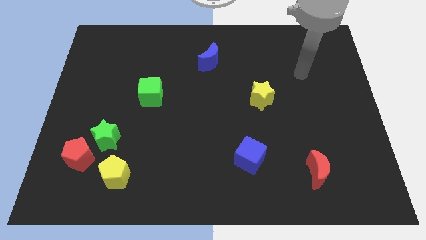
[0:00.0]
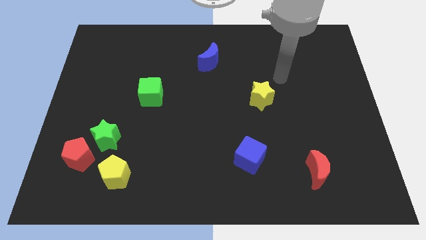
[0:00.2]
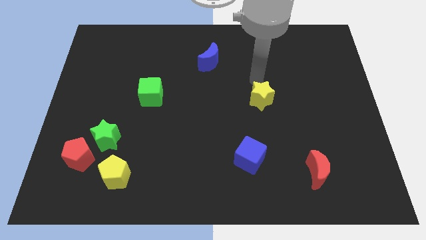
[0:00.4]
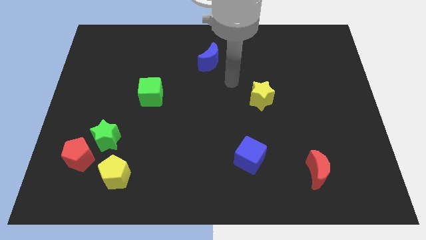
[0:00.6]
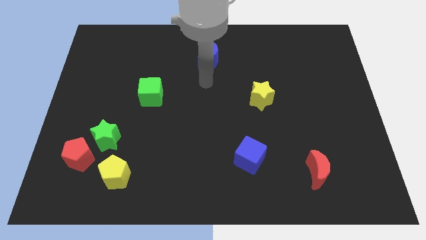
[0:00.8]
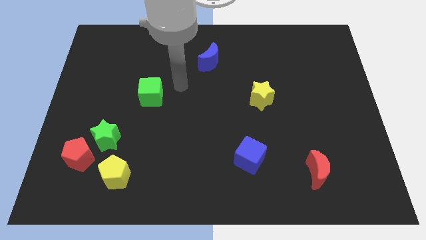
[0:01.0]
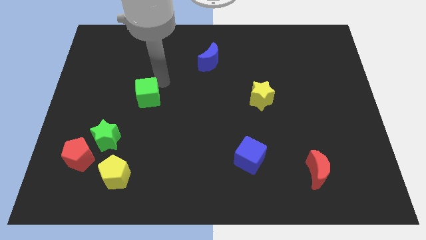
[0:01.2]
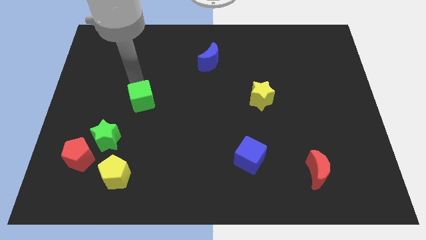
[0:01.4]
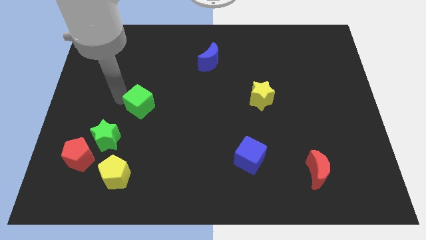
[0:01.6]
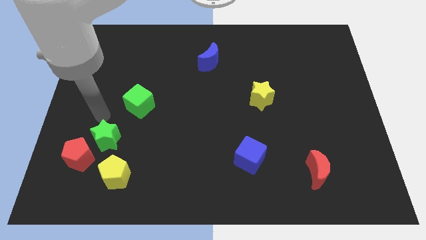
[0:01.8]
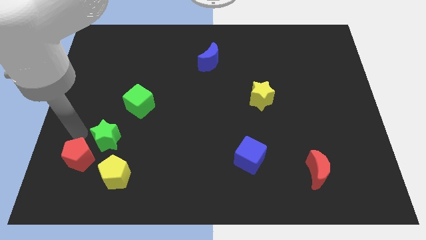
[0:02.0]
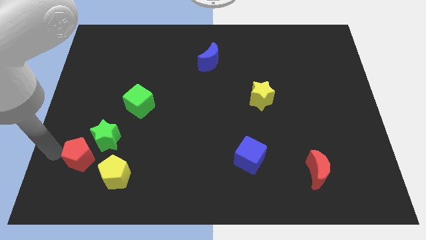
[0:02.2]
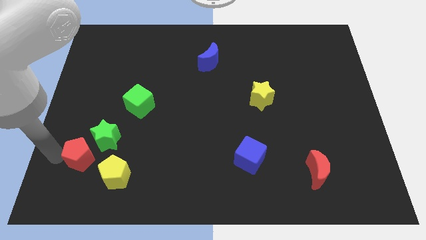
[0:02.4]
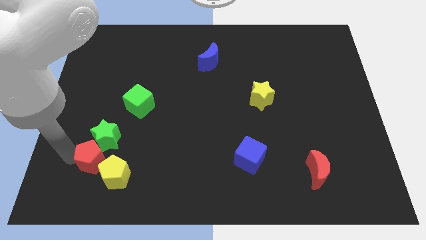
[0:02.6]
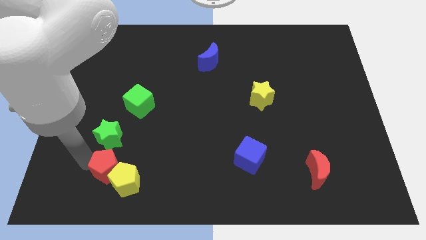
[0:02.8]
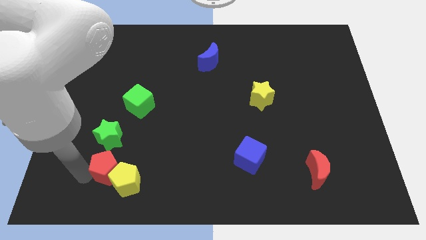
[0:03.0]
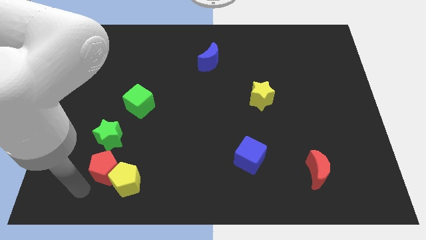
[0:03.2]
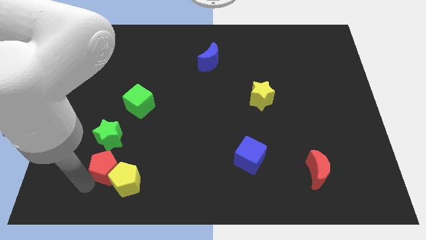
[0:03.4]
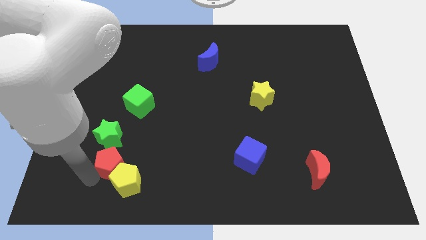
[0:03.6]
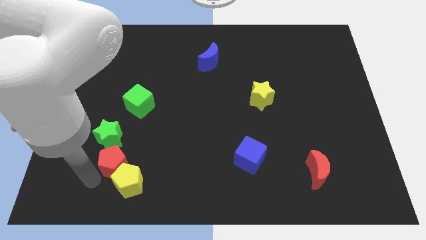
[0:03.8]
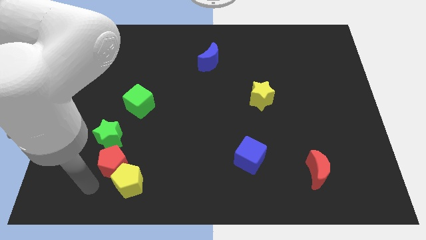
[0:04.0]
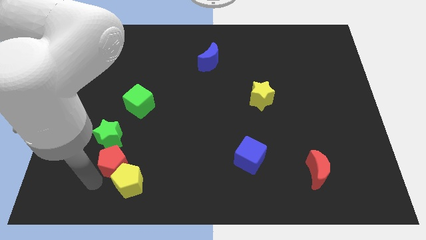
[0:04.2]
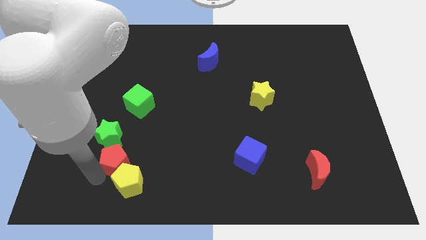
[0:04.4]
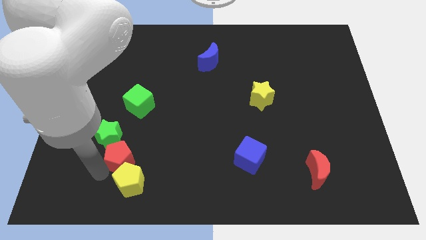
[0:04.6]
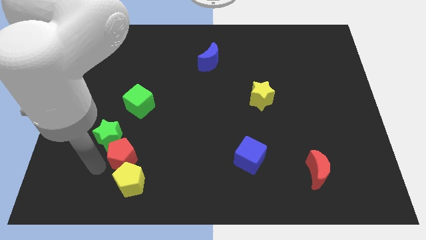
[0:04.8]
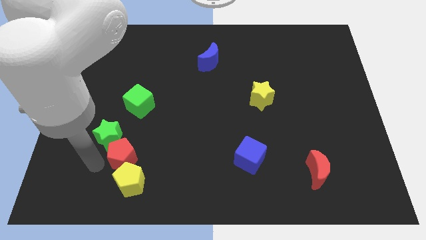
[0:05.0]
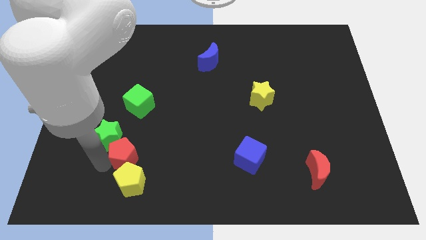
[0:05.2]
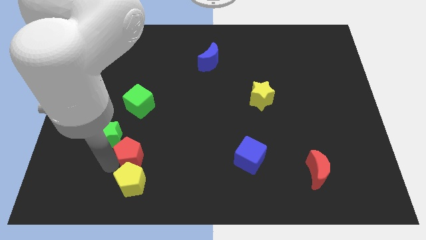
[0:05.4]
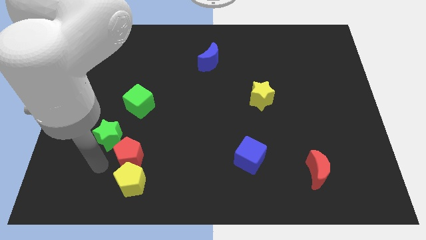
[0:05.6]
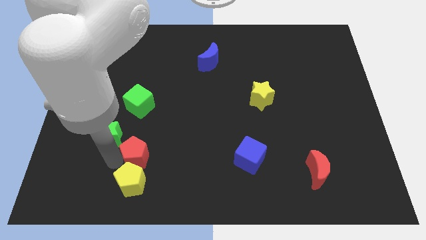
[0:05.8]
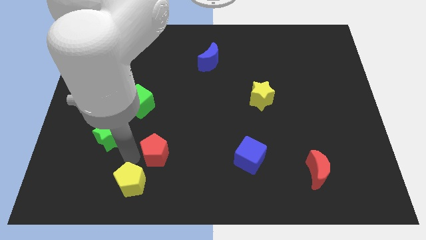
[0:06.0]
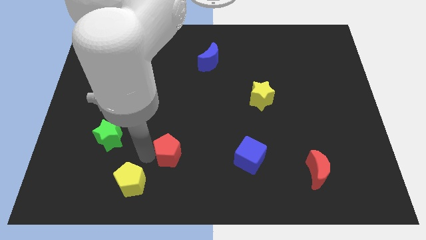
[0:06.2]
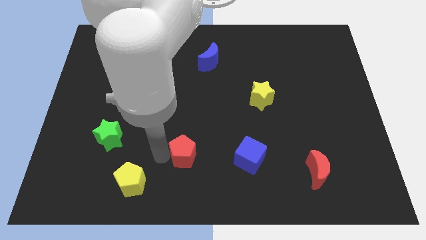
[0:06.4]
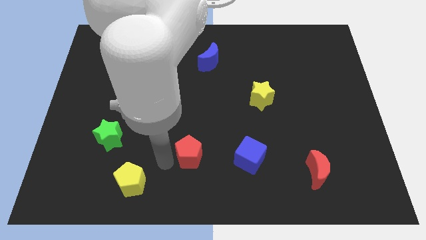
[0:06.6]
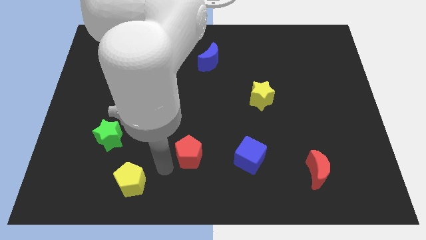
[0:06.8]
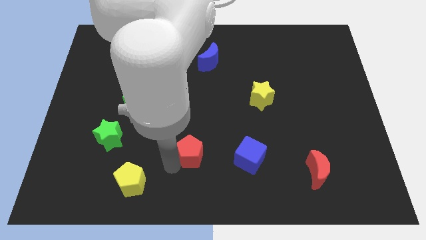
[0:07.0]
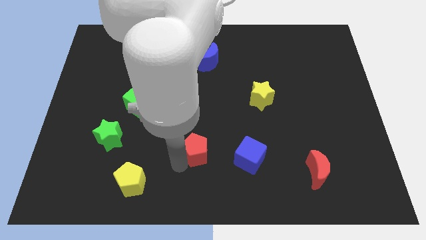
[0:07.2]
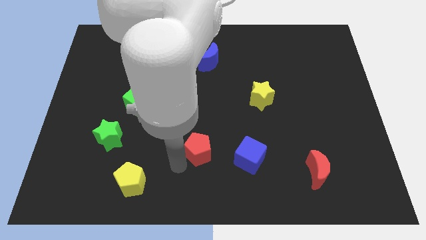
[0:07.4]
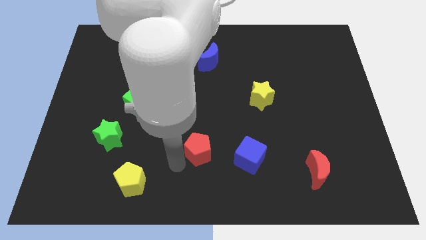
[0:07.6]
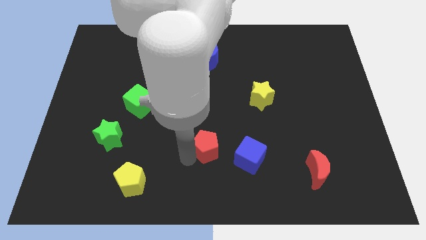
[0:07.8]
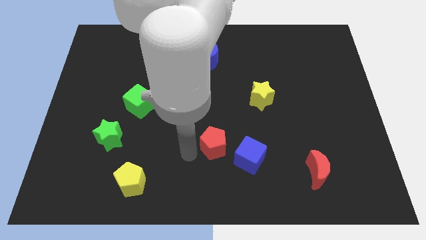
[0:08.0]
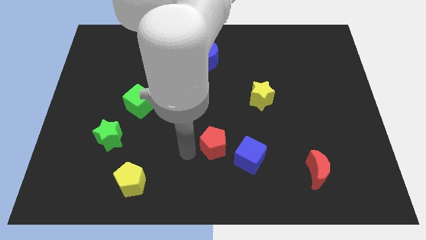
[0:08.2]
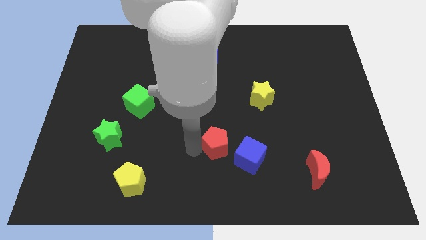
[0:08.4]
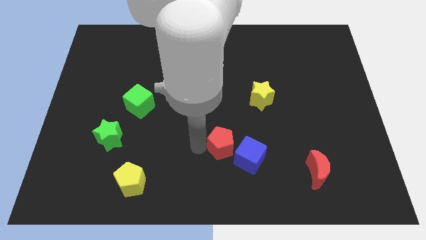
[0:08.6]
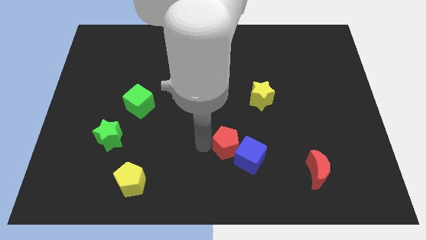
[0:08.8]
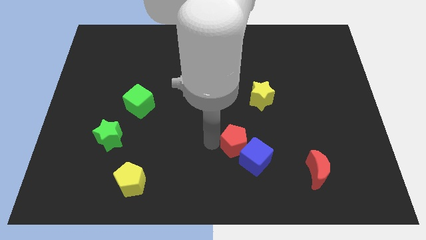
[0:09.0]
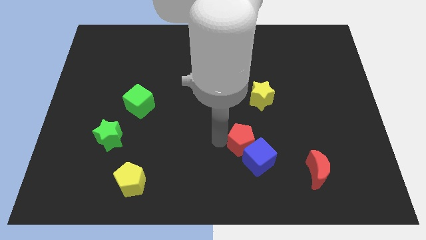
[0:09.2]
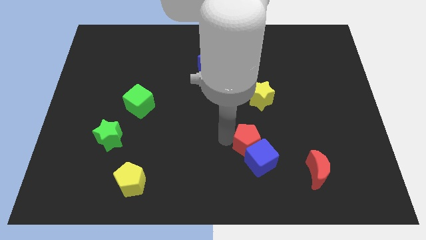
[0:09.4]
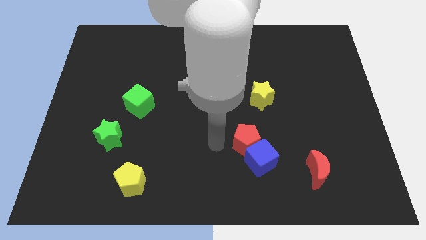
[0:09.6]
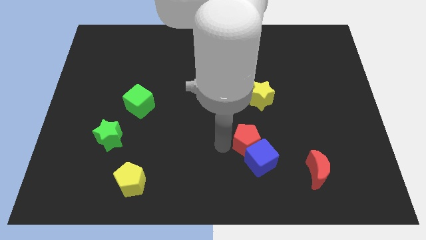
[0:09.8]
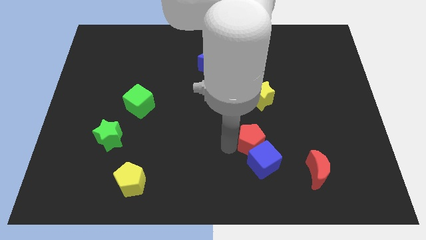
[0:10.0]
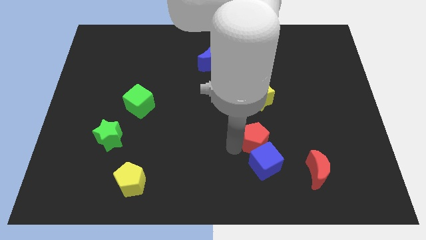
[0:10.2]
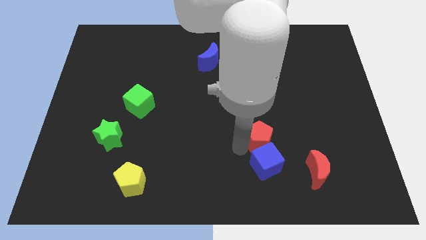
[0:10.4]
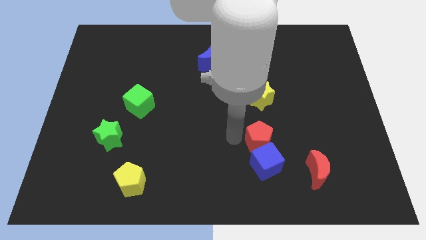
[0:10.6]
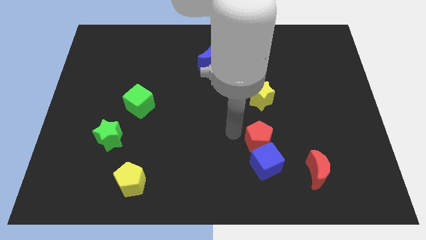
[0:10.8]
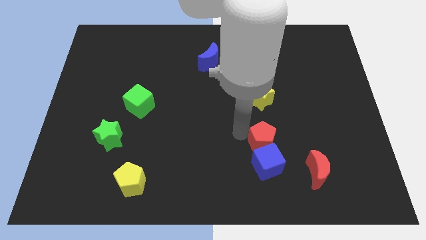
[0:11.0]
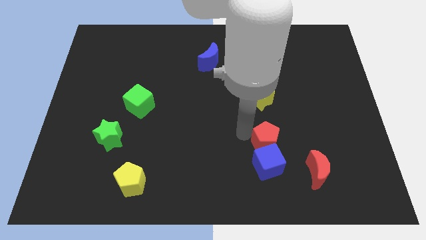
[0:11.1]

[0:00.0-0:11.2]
put the red pentagon to the top left of the red moon

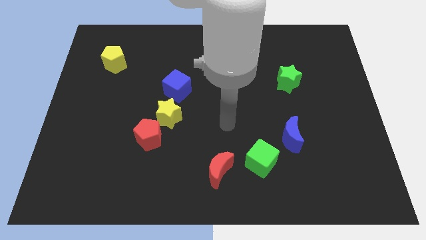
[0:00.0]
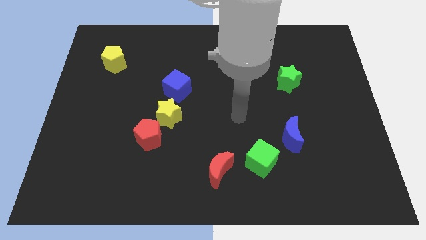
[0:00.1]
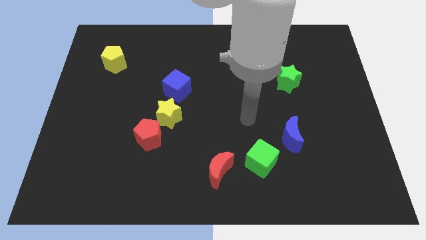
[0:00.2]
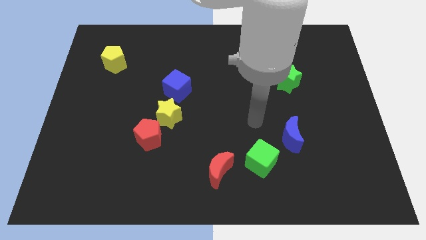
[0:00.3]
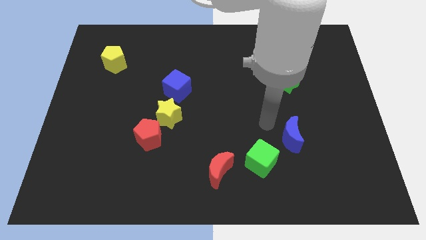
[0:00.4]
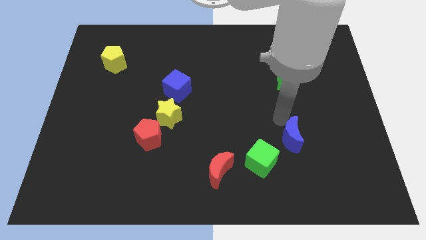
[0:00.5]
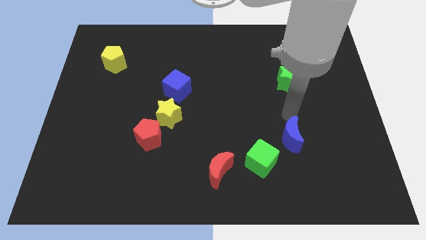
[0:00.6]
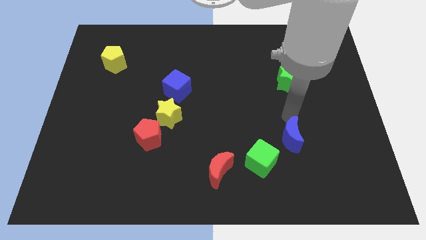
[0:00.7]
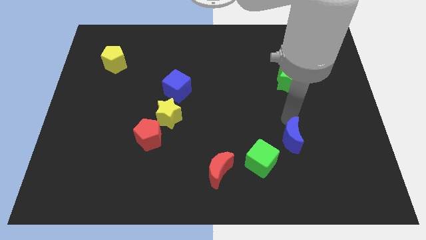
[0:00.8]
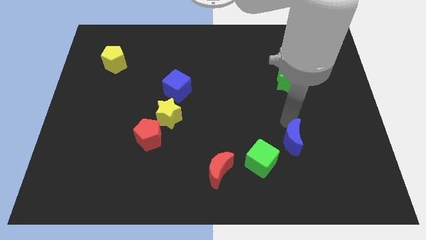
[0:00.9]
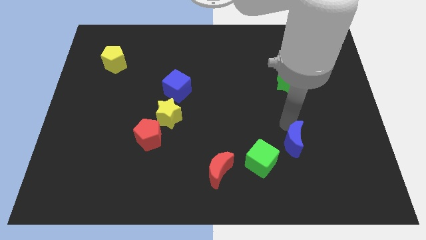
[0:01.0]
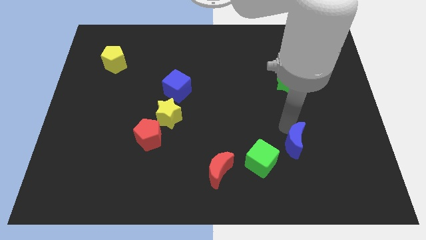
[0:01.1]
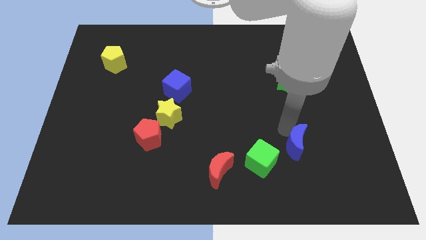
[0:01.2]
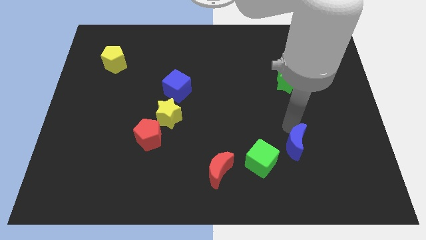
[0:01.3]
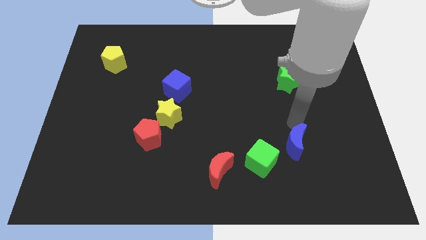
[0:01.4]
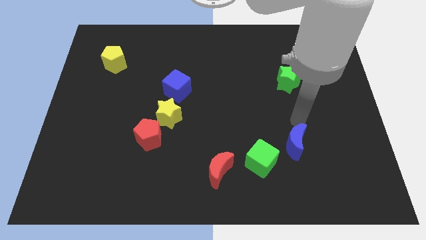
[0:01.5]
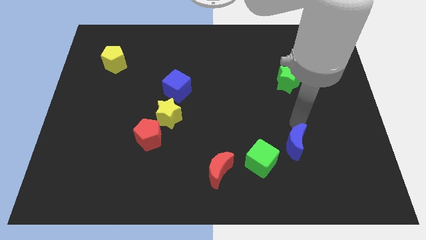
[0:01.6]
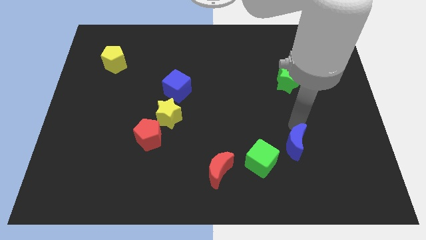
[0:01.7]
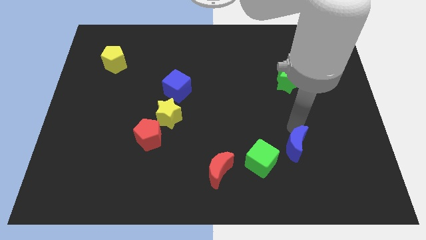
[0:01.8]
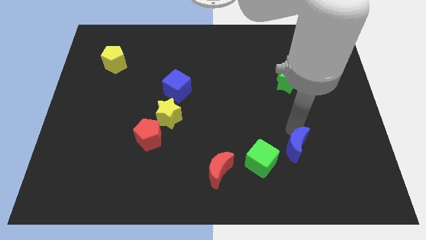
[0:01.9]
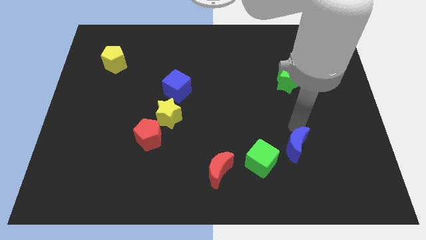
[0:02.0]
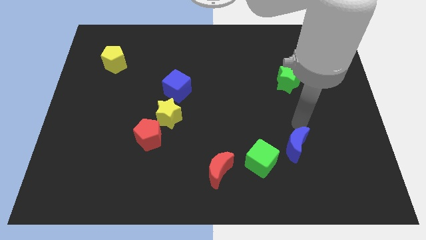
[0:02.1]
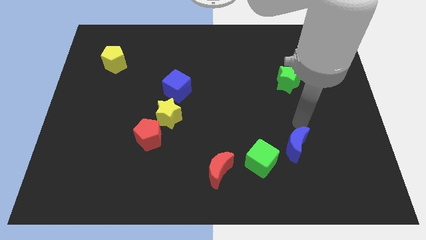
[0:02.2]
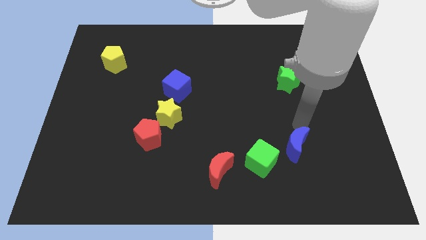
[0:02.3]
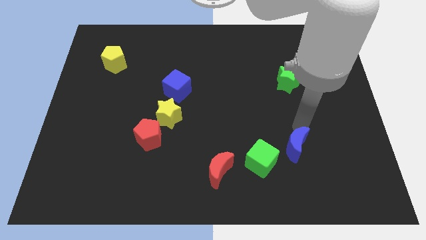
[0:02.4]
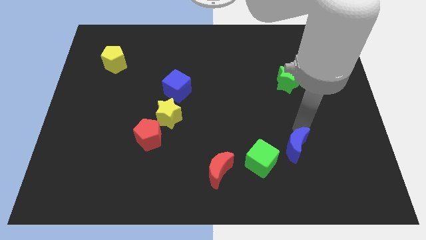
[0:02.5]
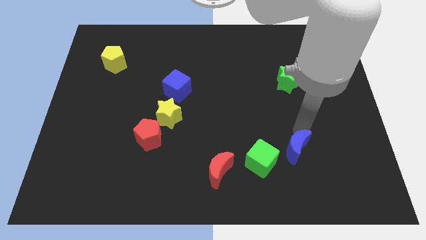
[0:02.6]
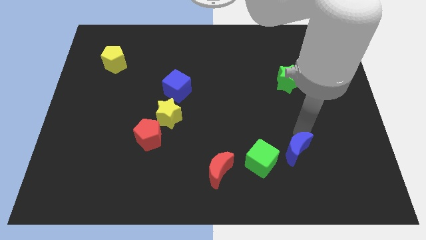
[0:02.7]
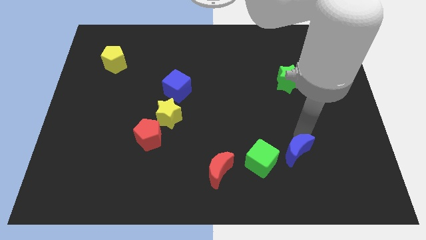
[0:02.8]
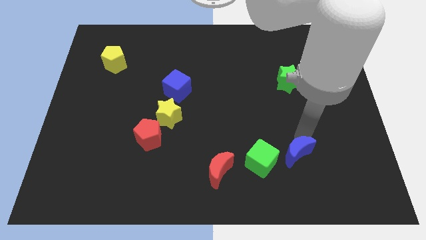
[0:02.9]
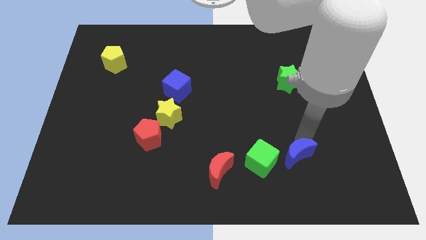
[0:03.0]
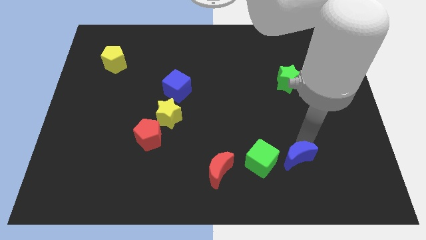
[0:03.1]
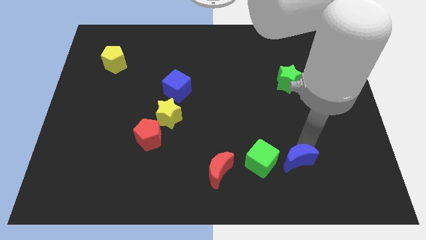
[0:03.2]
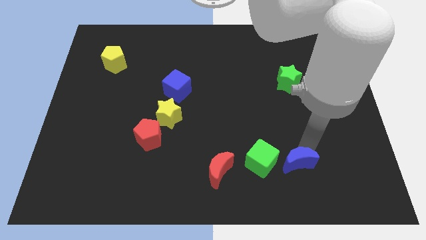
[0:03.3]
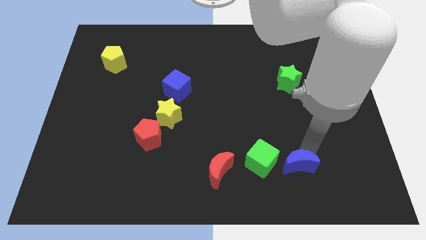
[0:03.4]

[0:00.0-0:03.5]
slide the blue moon to the bottom right side of the green cube
